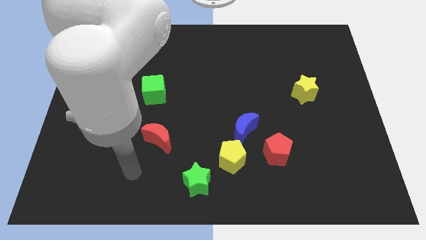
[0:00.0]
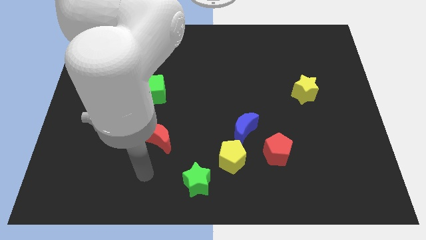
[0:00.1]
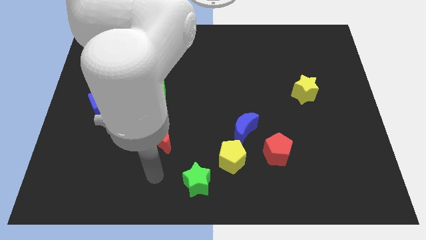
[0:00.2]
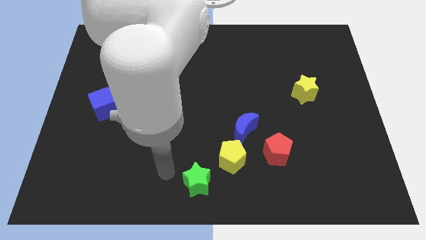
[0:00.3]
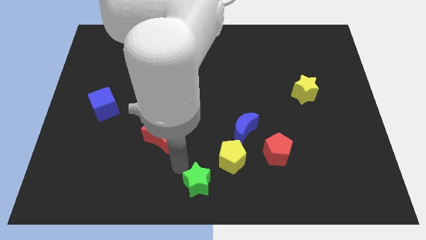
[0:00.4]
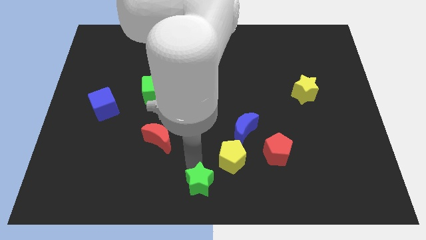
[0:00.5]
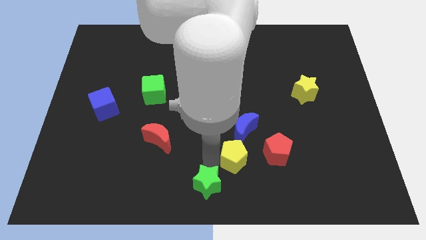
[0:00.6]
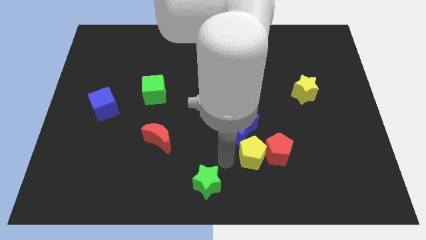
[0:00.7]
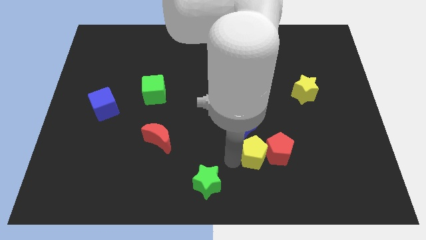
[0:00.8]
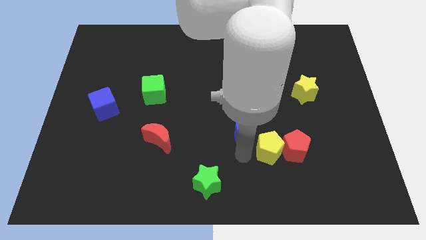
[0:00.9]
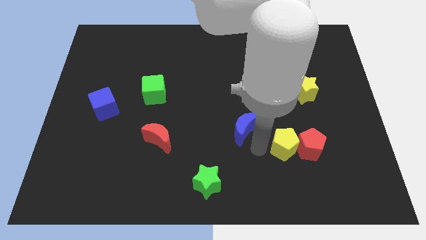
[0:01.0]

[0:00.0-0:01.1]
separate the blue moon from the yellow pentagon and red pentagon

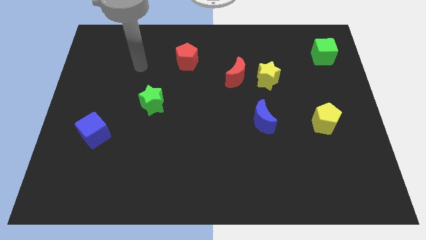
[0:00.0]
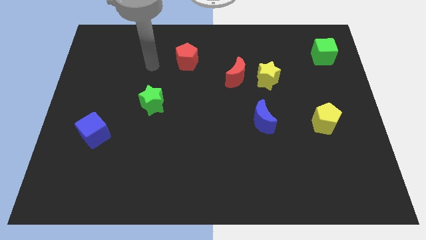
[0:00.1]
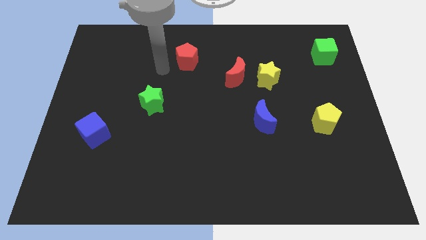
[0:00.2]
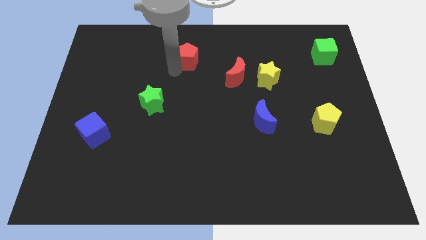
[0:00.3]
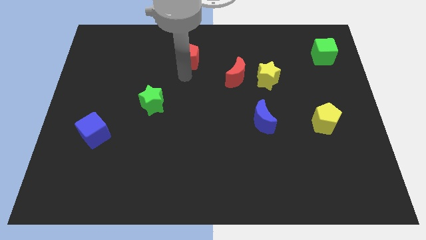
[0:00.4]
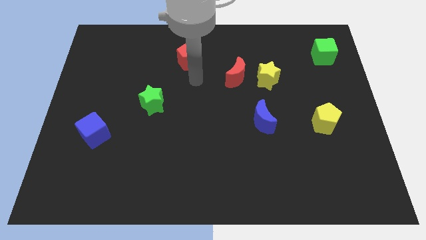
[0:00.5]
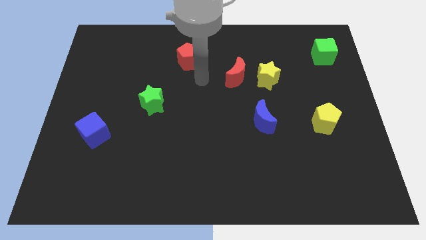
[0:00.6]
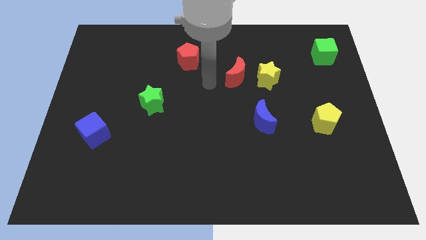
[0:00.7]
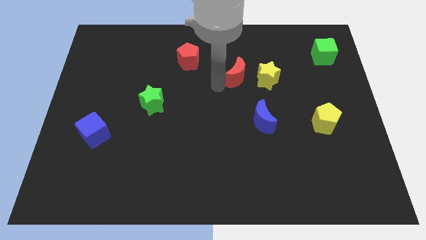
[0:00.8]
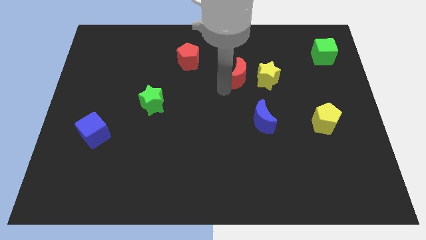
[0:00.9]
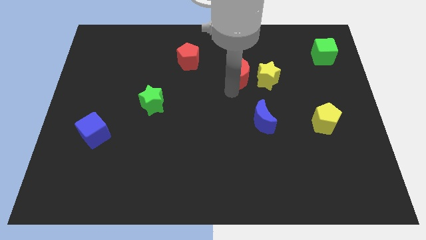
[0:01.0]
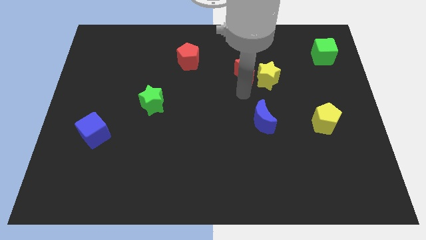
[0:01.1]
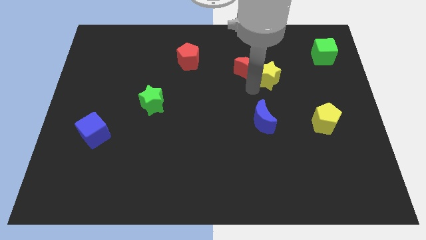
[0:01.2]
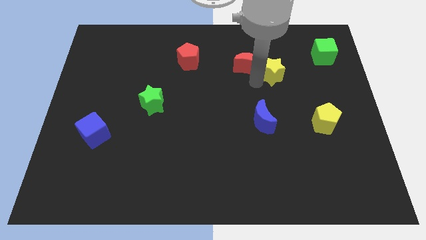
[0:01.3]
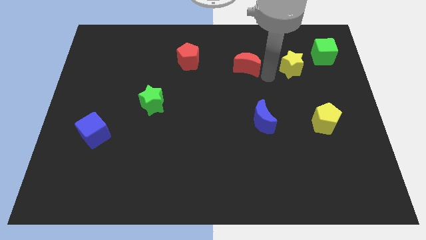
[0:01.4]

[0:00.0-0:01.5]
pull the red moon apart from the yellow star

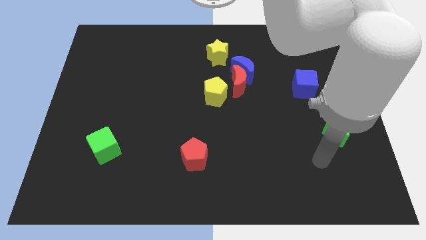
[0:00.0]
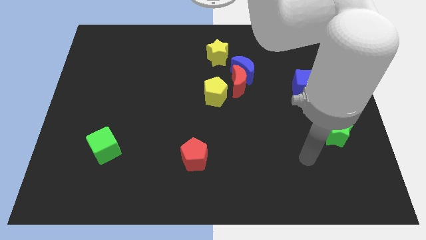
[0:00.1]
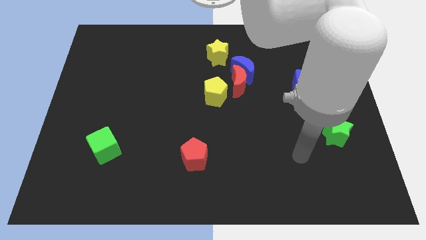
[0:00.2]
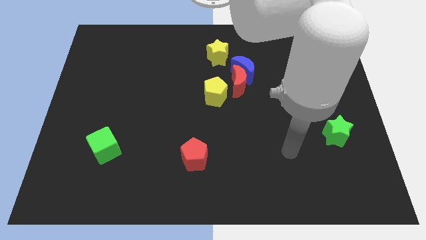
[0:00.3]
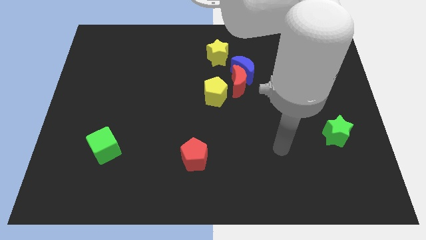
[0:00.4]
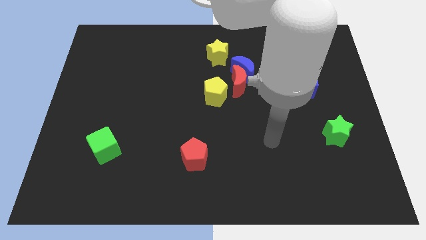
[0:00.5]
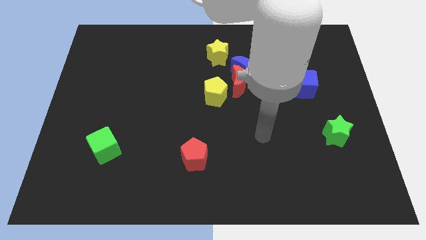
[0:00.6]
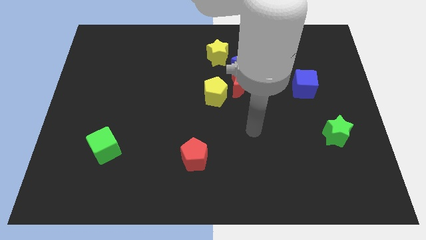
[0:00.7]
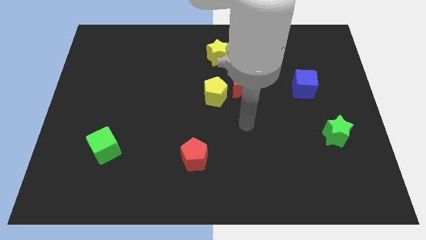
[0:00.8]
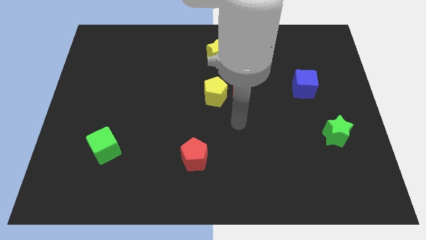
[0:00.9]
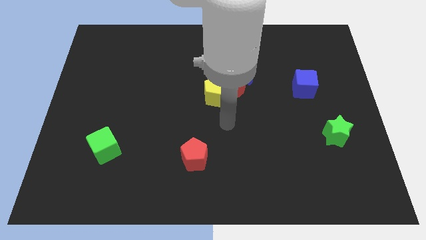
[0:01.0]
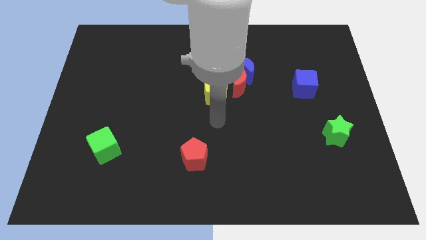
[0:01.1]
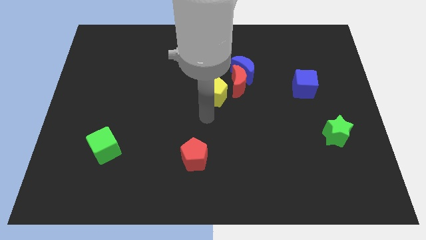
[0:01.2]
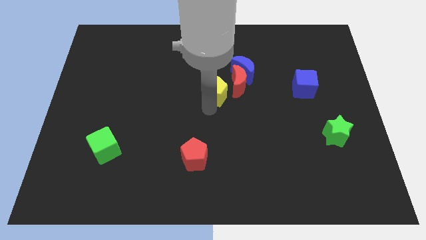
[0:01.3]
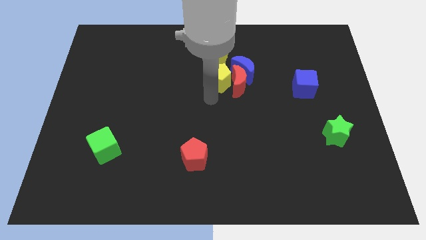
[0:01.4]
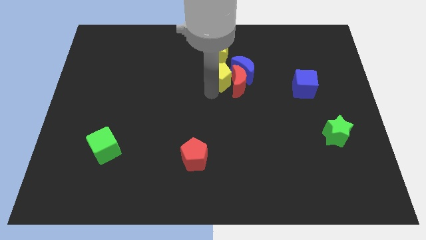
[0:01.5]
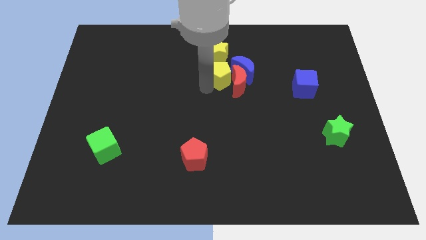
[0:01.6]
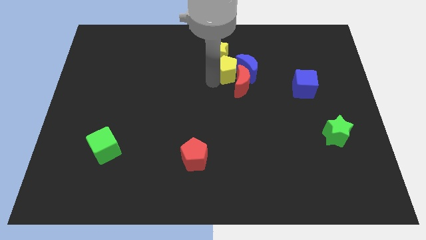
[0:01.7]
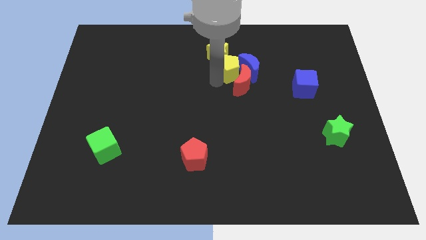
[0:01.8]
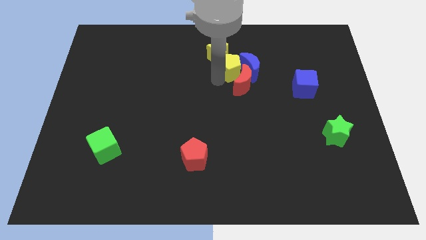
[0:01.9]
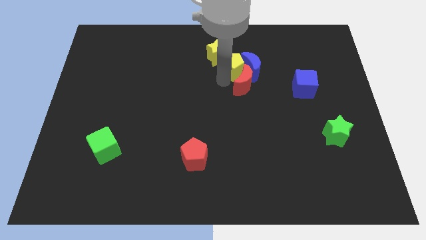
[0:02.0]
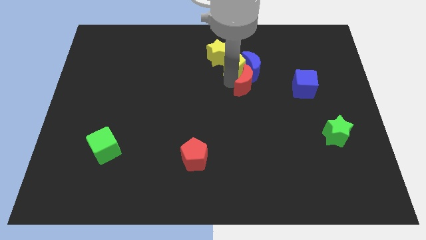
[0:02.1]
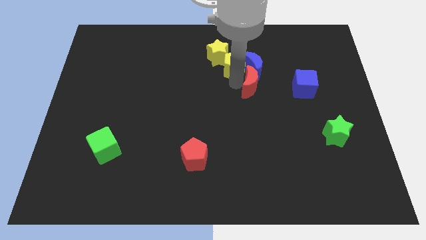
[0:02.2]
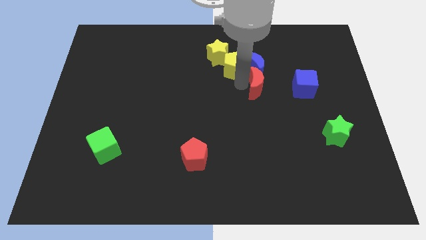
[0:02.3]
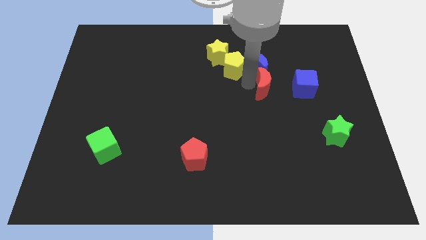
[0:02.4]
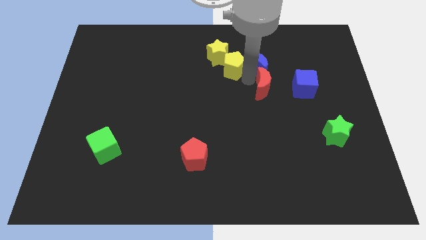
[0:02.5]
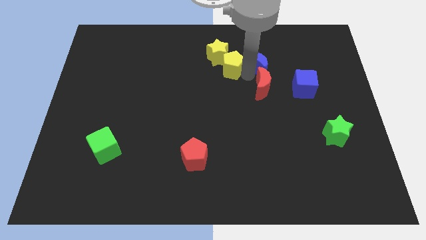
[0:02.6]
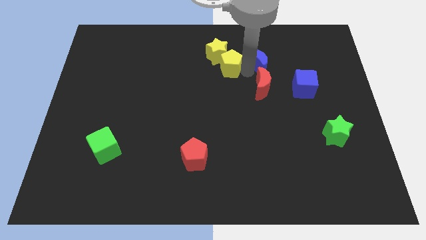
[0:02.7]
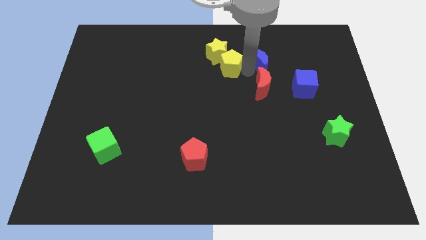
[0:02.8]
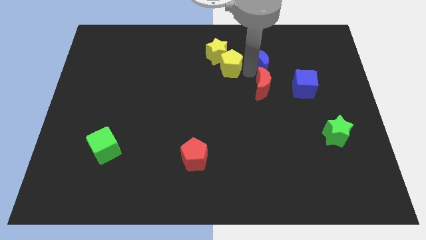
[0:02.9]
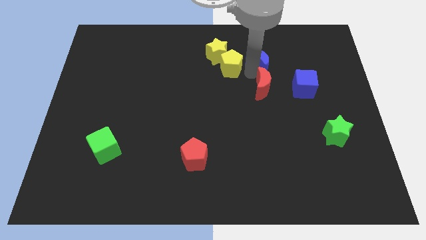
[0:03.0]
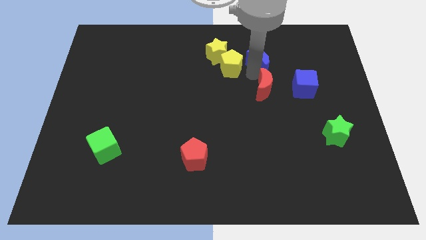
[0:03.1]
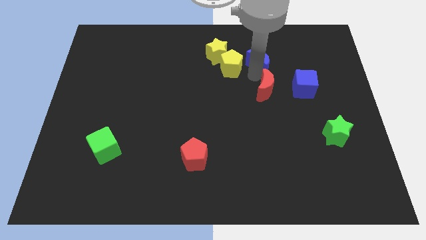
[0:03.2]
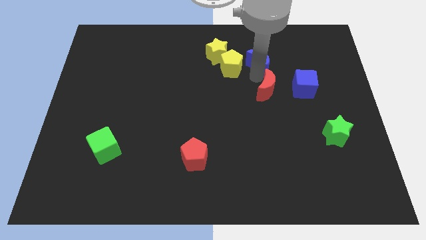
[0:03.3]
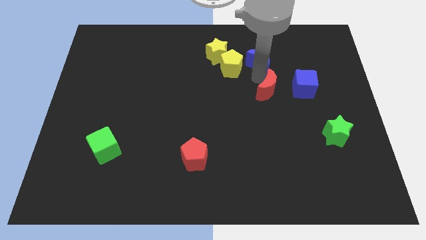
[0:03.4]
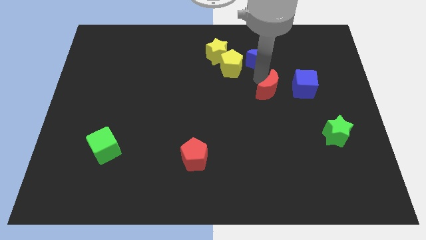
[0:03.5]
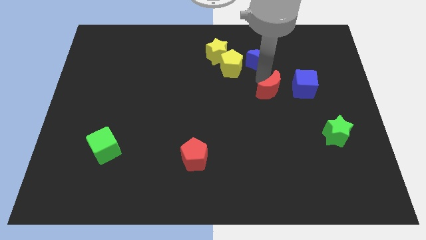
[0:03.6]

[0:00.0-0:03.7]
separate the red moon from the blue moon and yellow pentagon

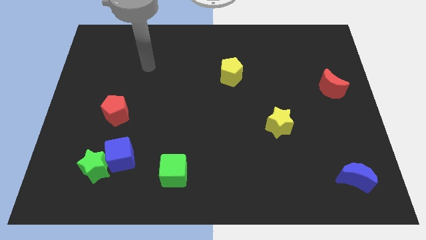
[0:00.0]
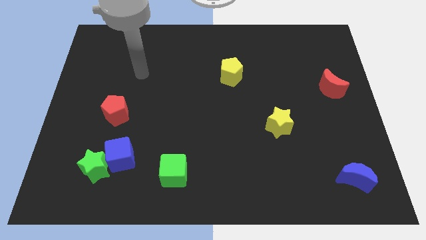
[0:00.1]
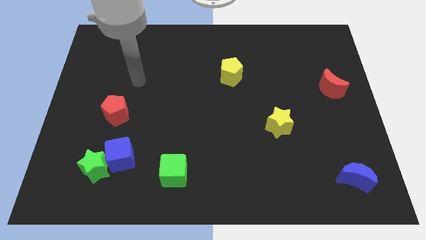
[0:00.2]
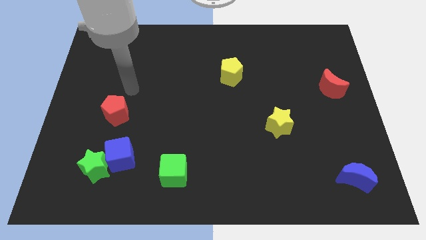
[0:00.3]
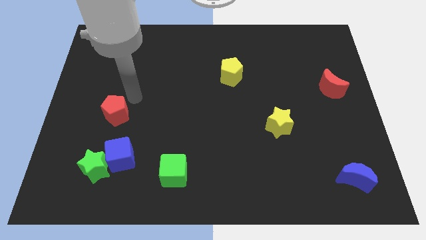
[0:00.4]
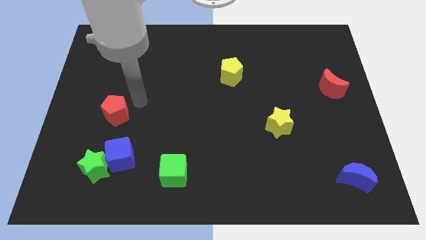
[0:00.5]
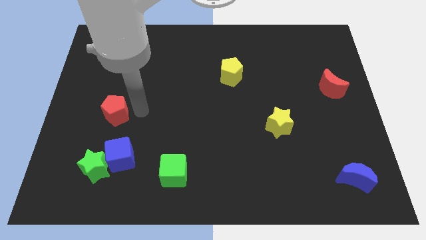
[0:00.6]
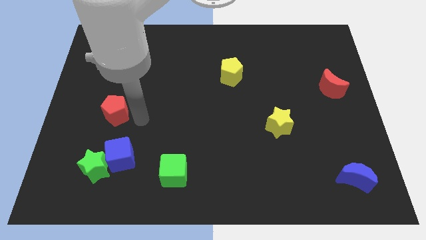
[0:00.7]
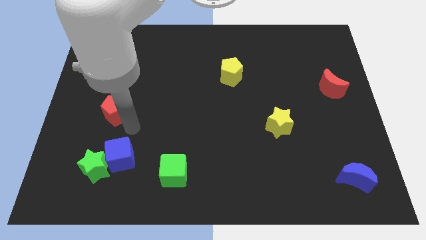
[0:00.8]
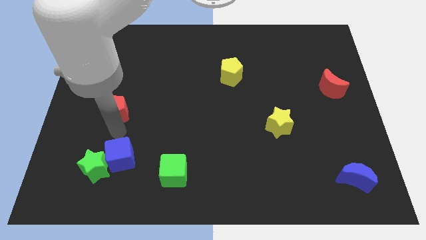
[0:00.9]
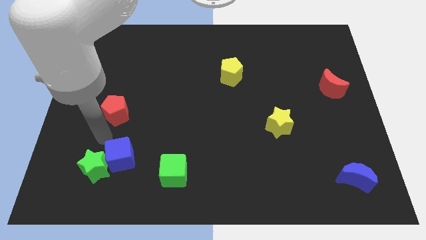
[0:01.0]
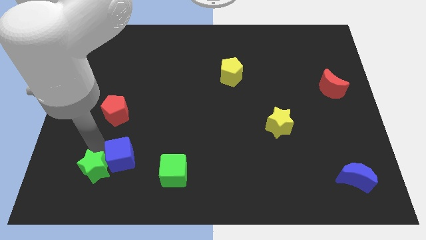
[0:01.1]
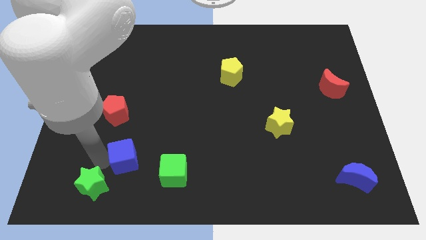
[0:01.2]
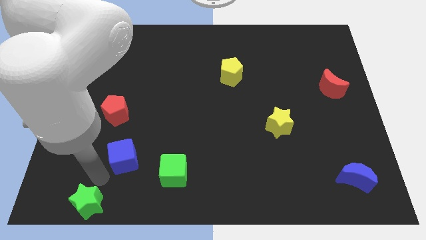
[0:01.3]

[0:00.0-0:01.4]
pull the blue cube apart from the green star

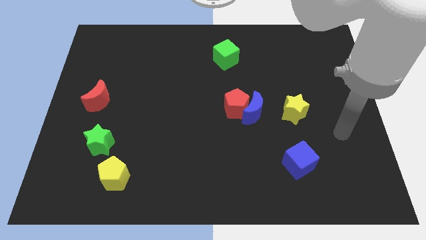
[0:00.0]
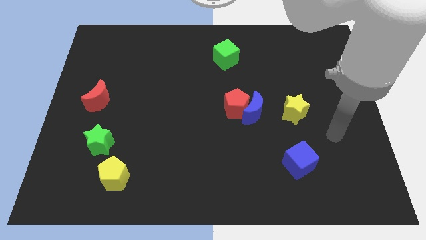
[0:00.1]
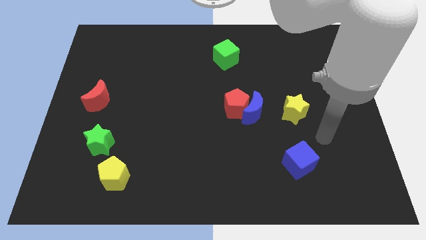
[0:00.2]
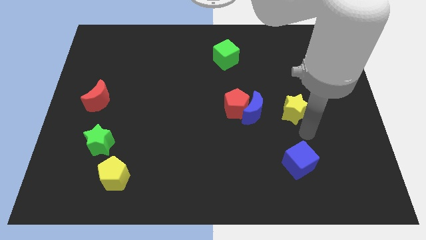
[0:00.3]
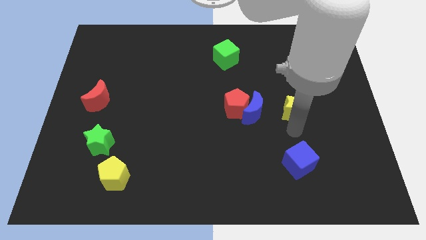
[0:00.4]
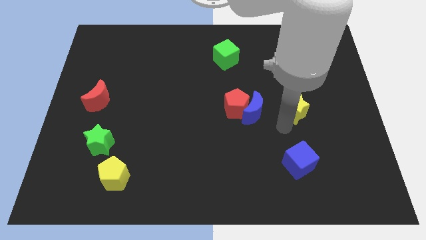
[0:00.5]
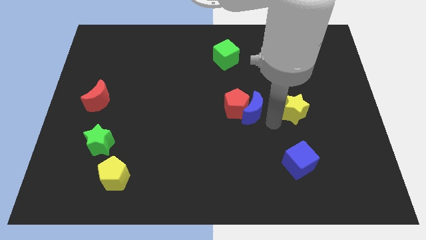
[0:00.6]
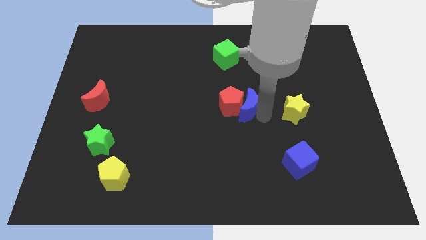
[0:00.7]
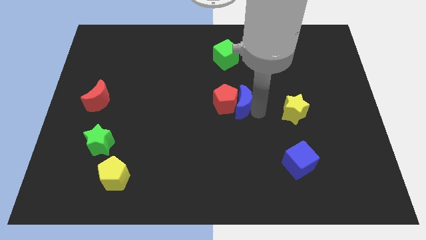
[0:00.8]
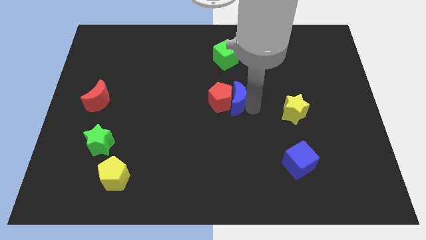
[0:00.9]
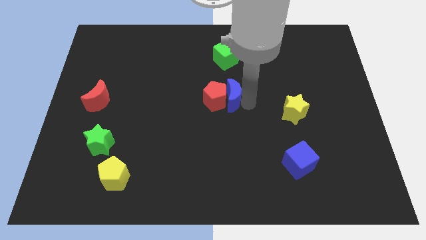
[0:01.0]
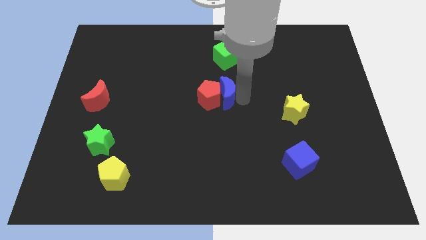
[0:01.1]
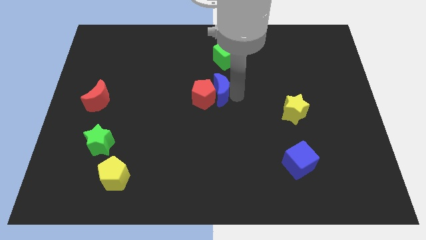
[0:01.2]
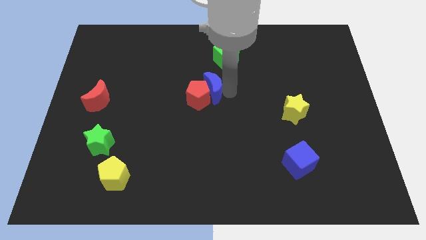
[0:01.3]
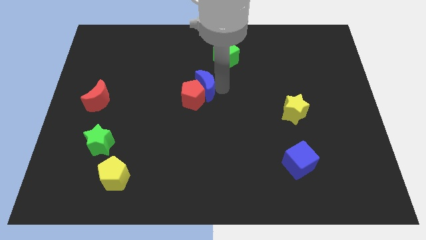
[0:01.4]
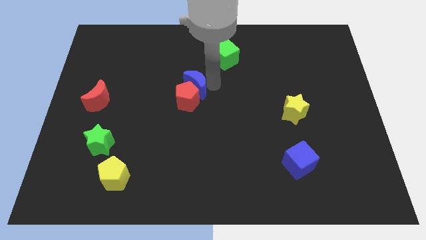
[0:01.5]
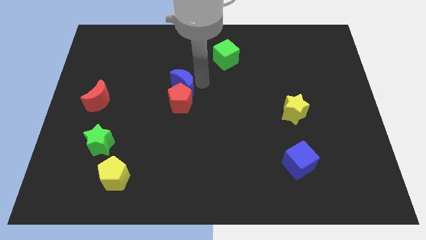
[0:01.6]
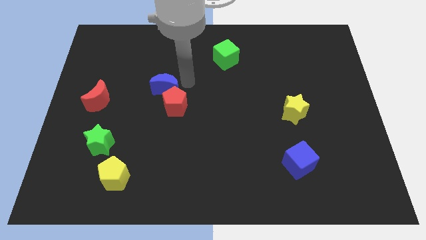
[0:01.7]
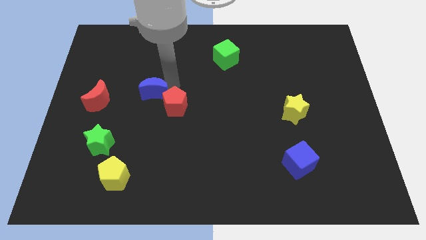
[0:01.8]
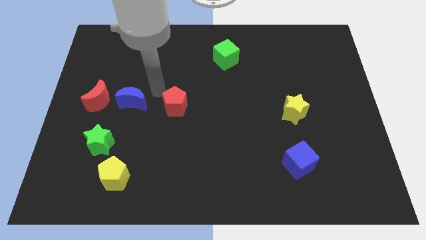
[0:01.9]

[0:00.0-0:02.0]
pull the red pentagon apart from the blue moon
